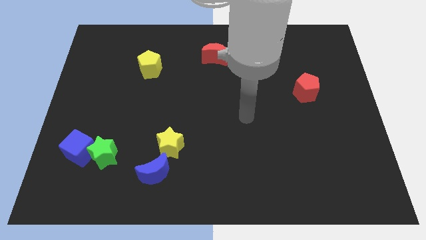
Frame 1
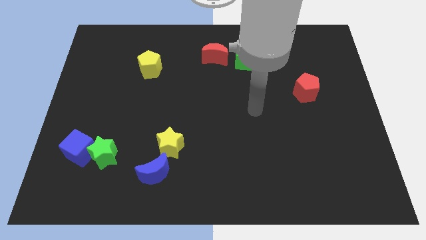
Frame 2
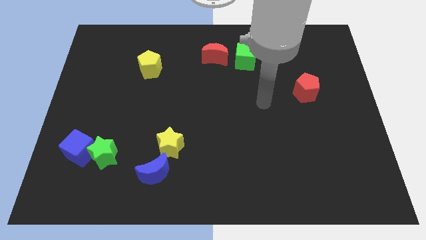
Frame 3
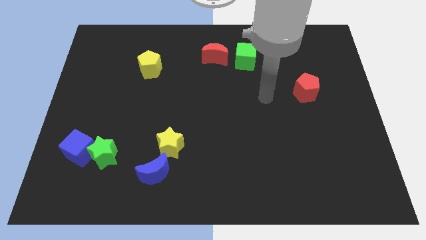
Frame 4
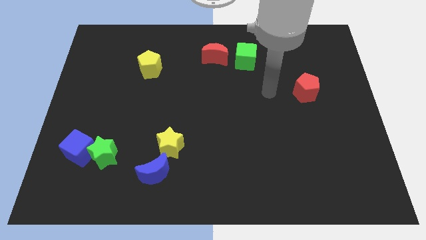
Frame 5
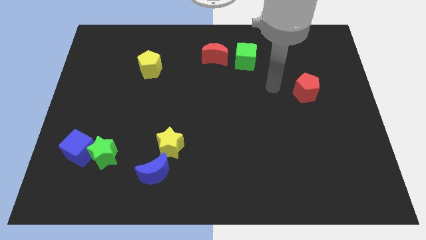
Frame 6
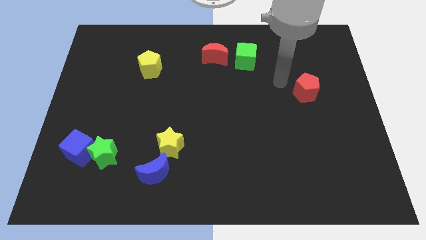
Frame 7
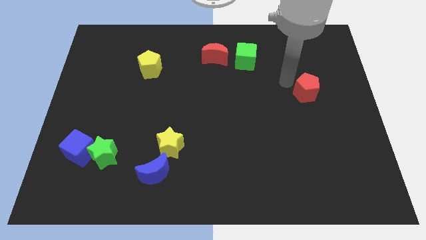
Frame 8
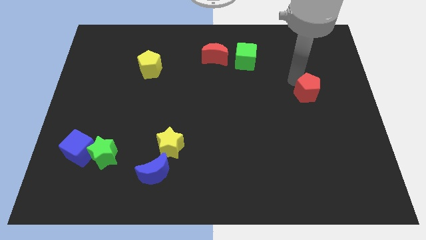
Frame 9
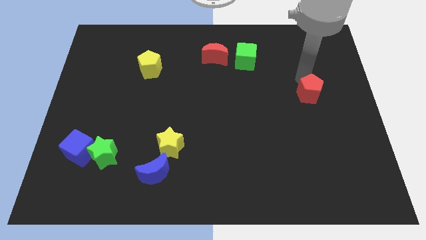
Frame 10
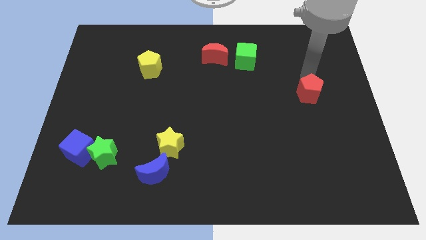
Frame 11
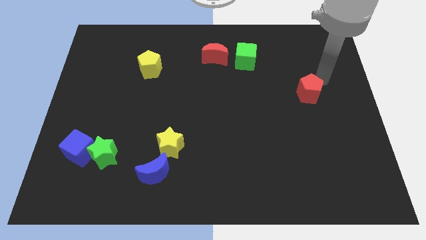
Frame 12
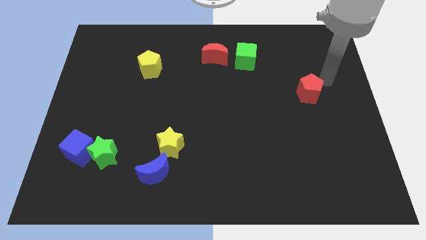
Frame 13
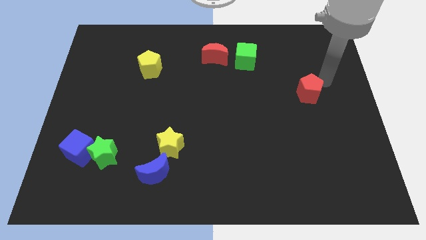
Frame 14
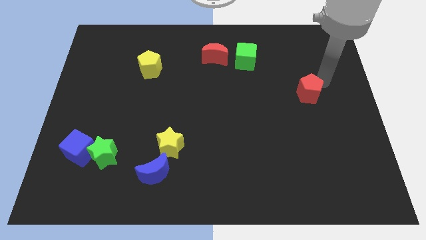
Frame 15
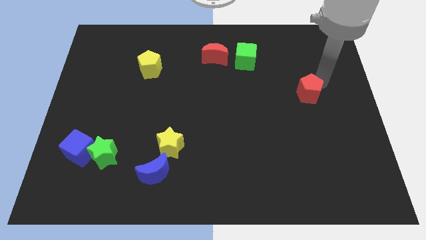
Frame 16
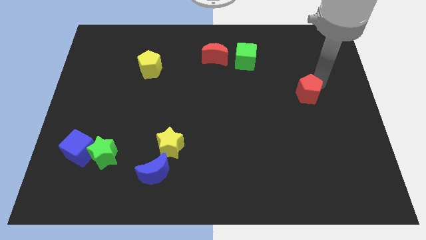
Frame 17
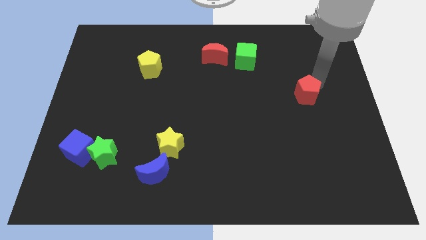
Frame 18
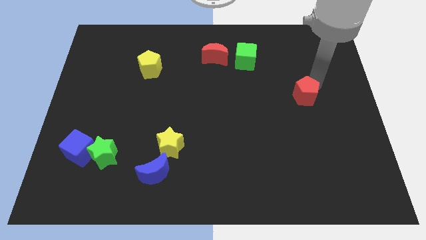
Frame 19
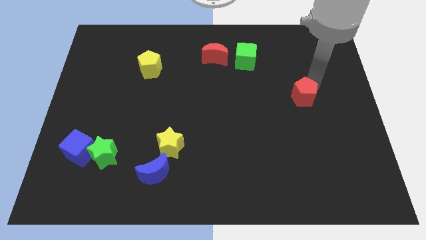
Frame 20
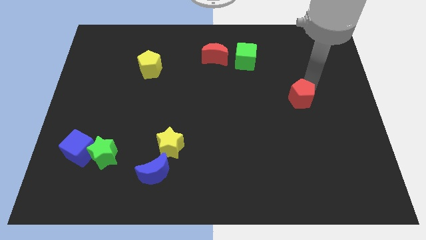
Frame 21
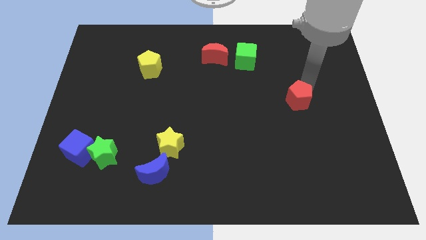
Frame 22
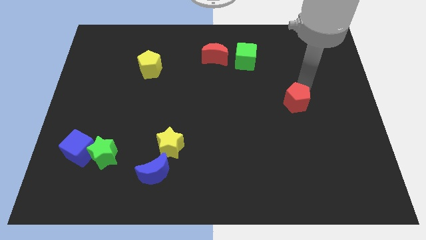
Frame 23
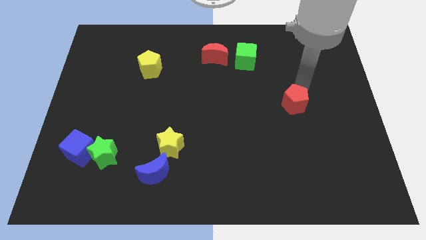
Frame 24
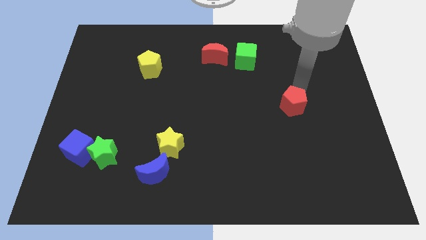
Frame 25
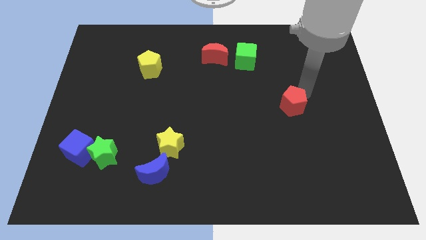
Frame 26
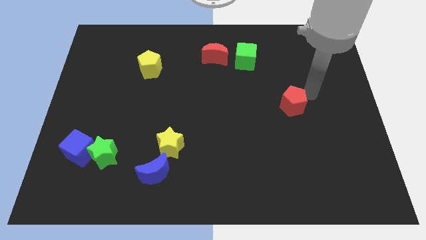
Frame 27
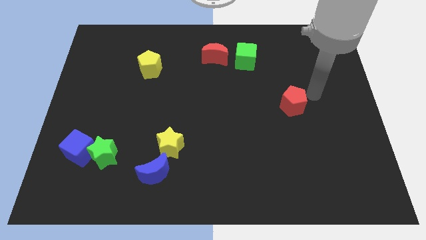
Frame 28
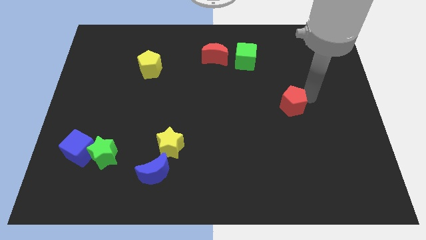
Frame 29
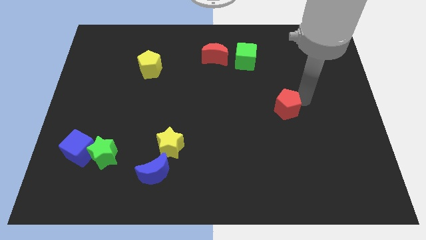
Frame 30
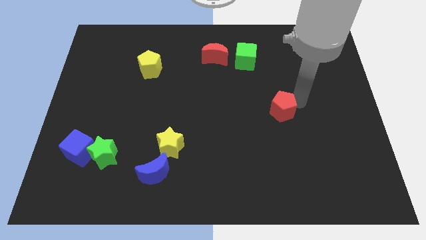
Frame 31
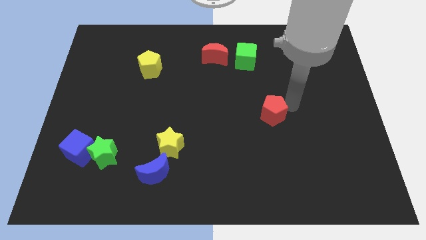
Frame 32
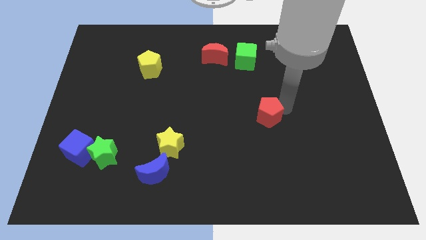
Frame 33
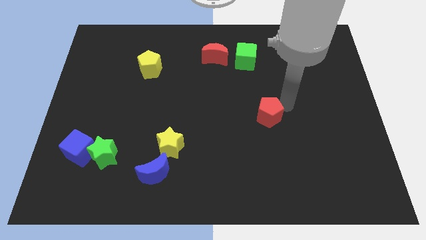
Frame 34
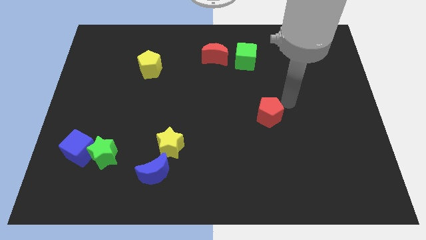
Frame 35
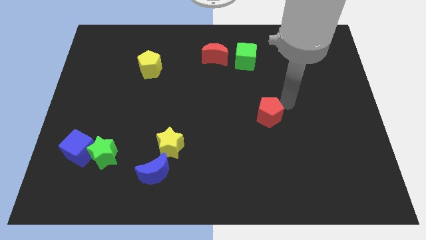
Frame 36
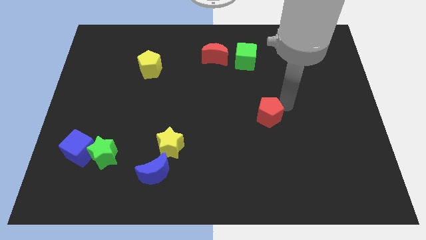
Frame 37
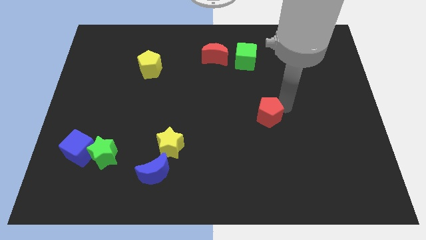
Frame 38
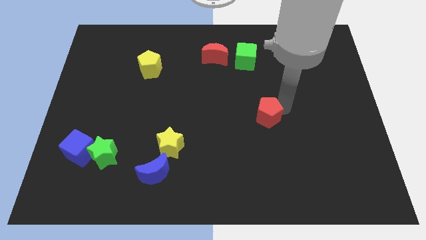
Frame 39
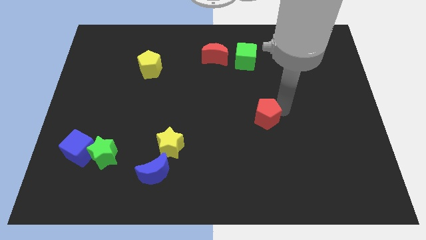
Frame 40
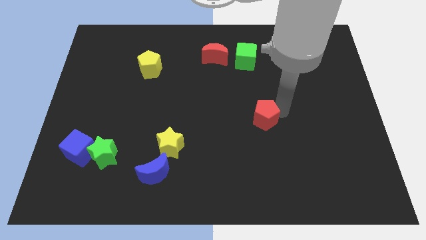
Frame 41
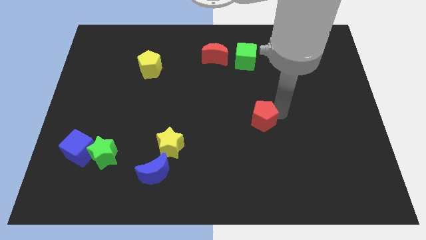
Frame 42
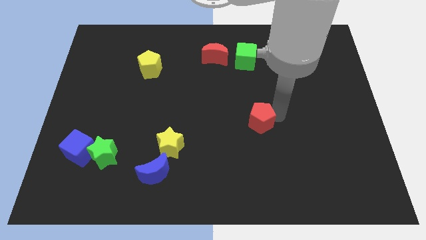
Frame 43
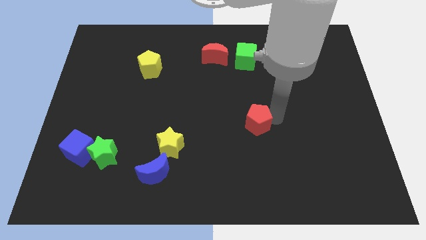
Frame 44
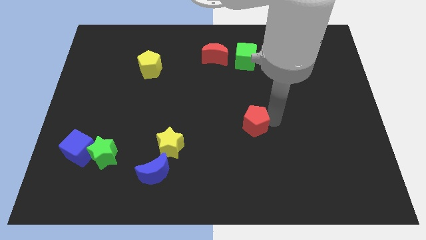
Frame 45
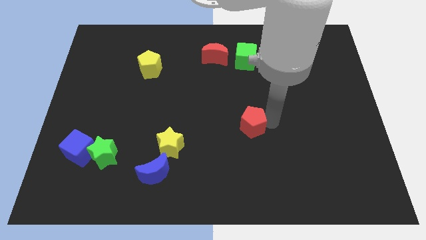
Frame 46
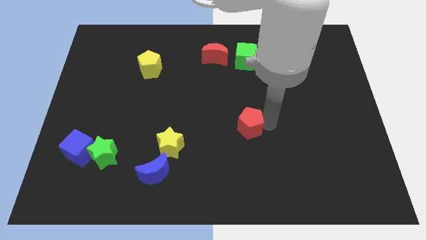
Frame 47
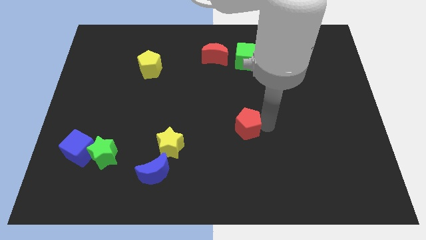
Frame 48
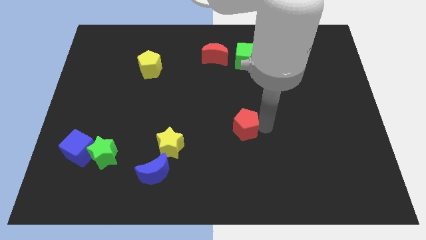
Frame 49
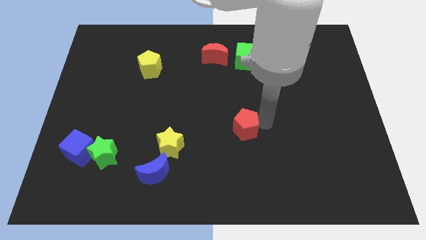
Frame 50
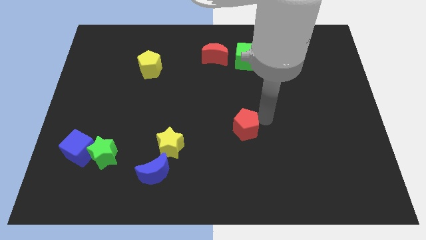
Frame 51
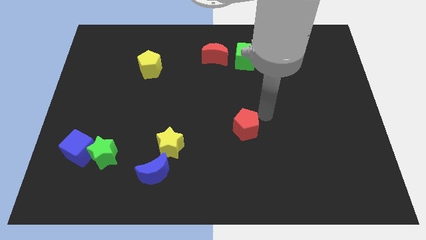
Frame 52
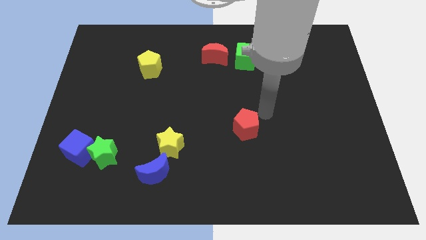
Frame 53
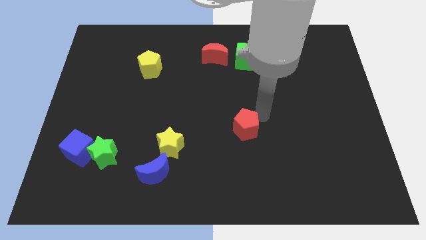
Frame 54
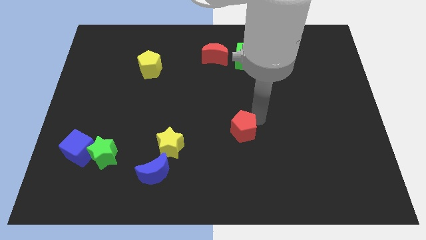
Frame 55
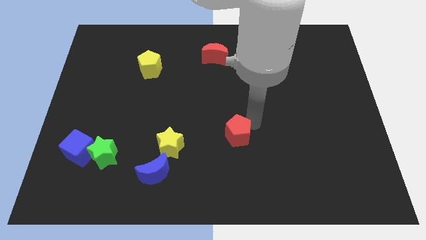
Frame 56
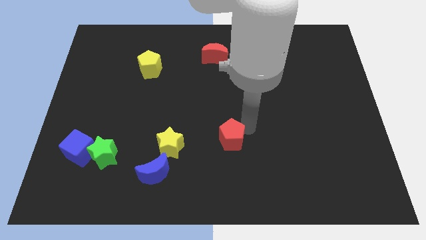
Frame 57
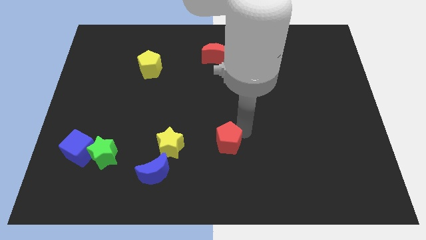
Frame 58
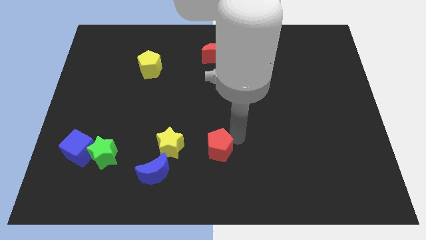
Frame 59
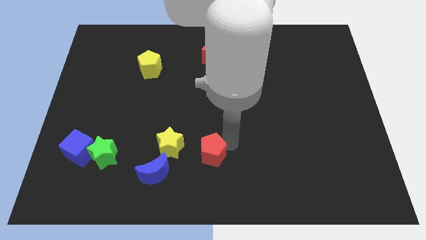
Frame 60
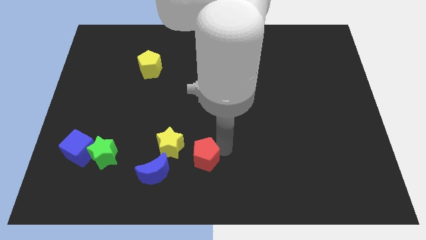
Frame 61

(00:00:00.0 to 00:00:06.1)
move the red pentagon to the top right side of the blue moon

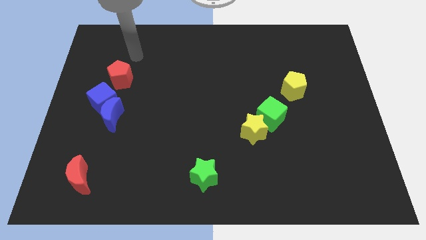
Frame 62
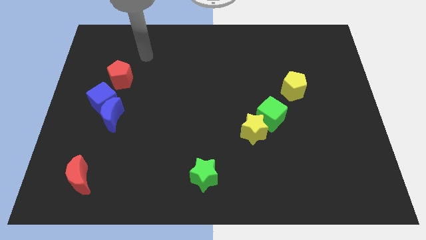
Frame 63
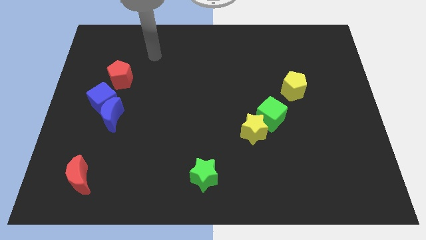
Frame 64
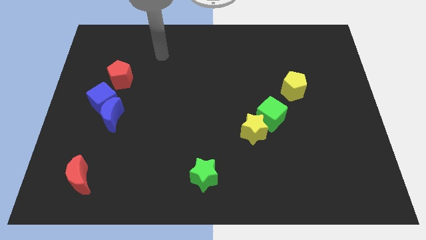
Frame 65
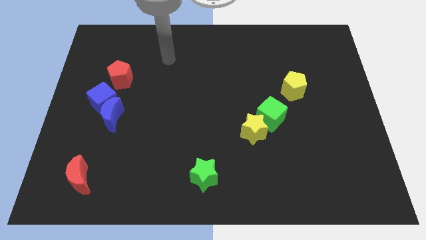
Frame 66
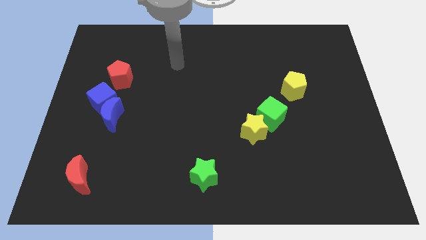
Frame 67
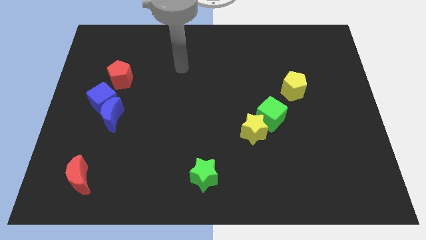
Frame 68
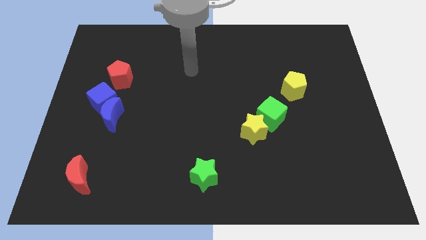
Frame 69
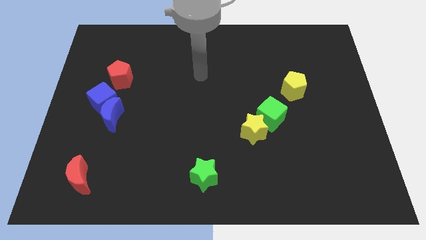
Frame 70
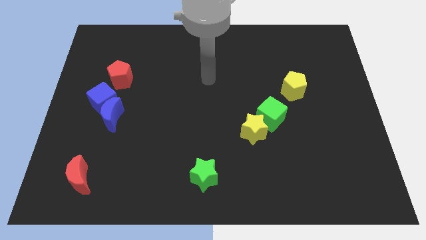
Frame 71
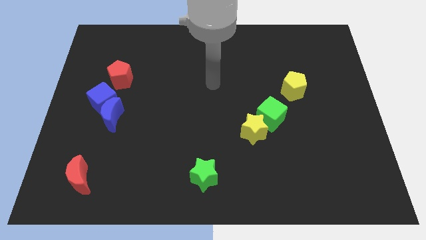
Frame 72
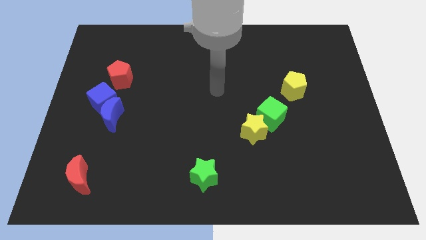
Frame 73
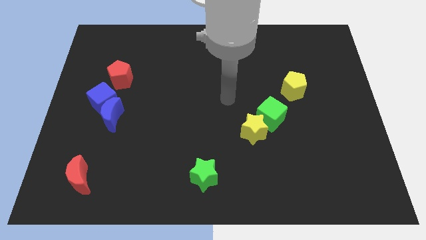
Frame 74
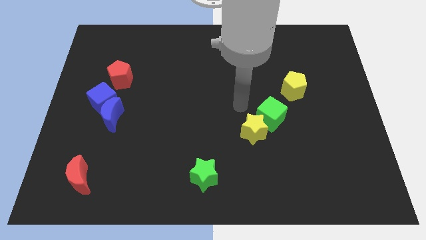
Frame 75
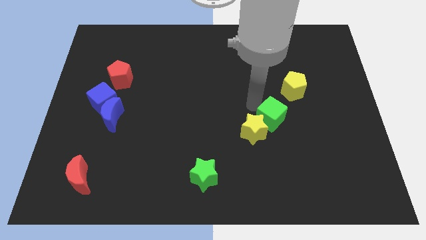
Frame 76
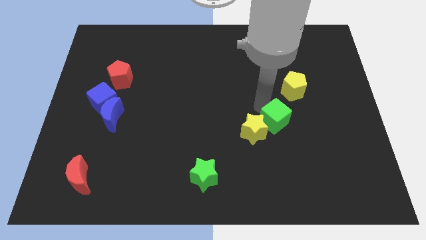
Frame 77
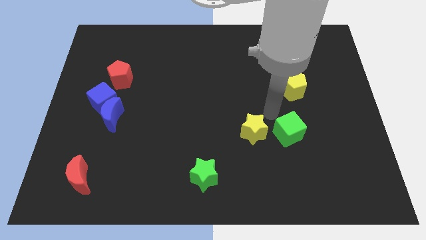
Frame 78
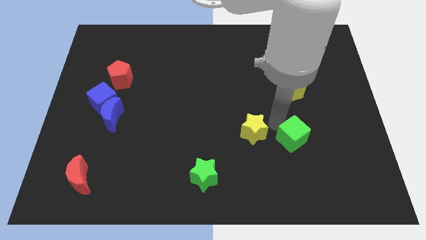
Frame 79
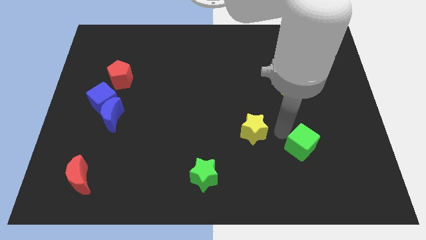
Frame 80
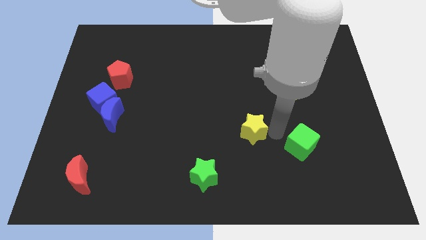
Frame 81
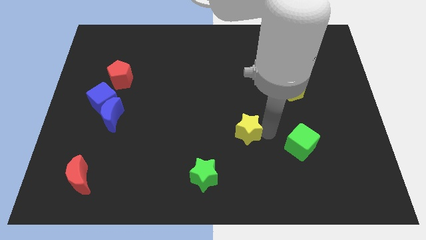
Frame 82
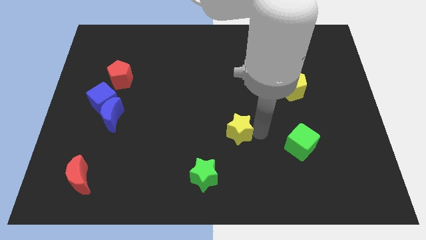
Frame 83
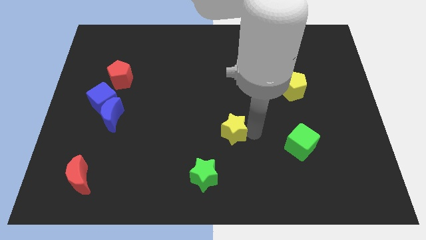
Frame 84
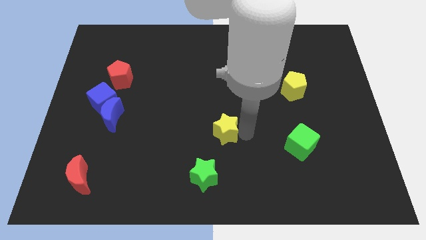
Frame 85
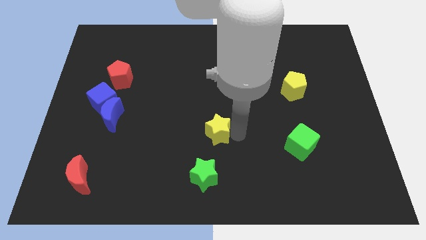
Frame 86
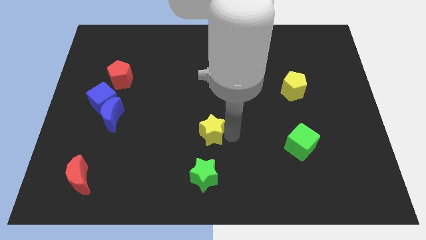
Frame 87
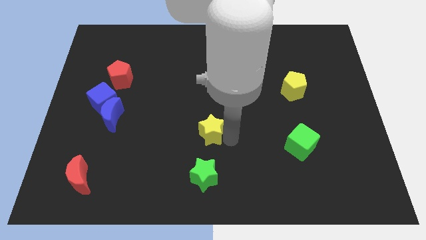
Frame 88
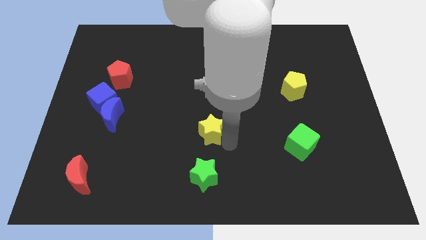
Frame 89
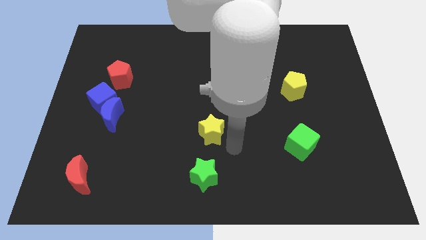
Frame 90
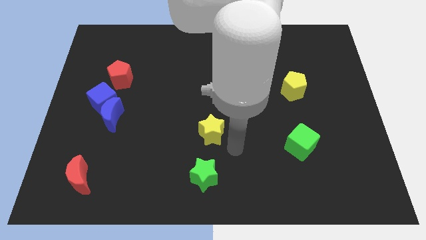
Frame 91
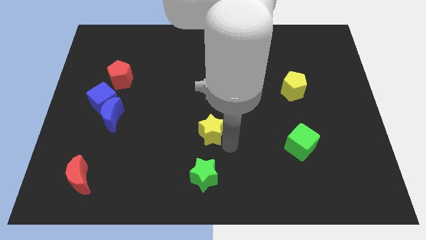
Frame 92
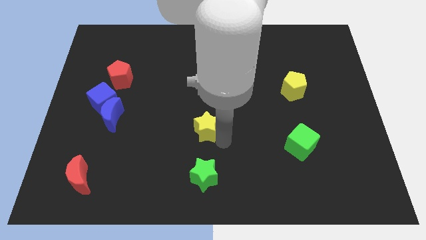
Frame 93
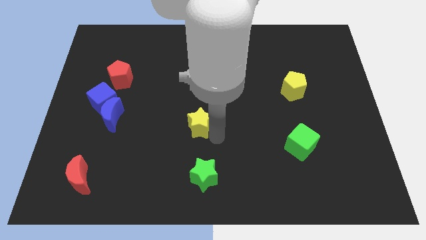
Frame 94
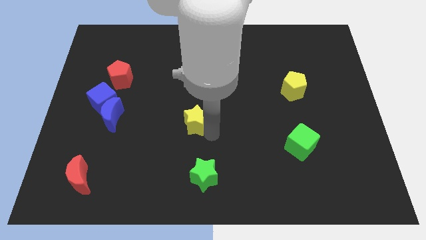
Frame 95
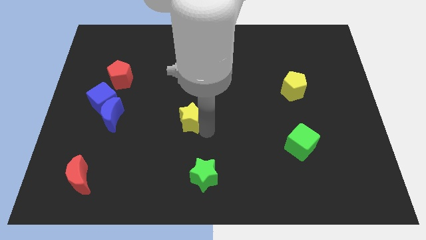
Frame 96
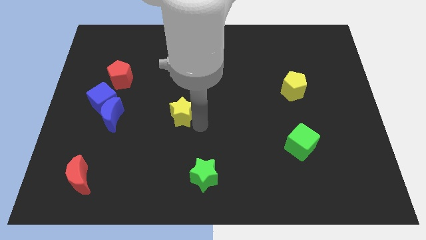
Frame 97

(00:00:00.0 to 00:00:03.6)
push the yellow star right of the blue moon
